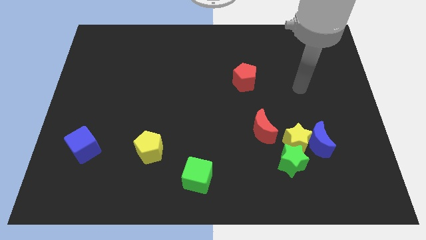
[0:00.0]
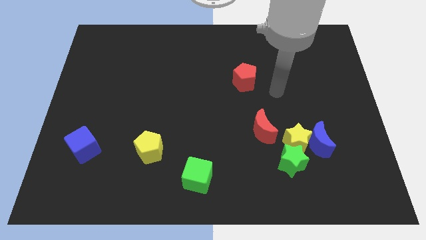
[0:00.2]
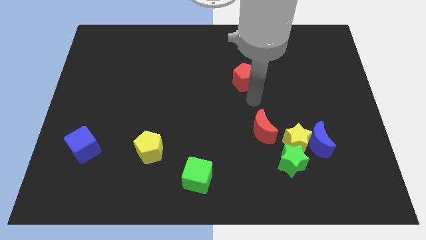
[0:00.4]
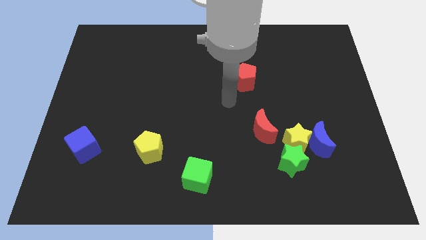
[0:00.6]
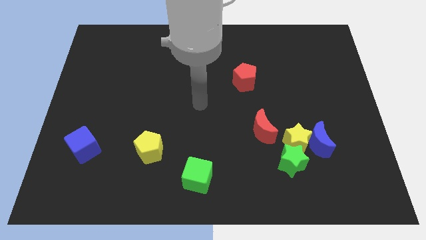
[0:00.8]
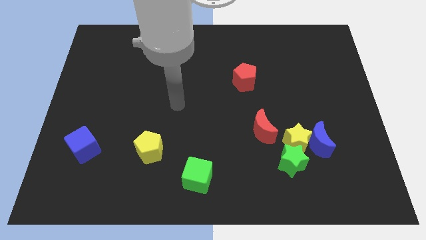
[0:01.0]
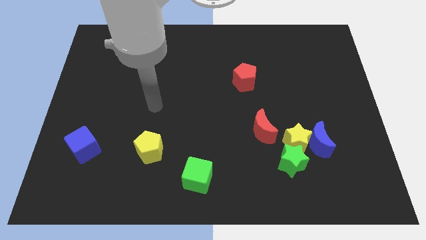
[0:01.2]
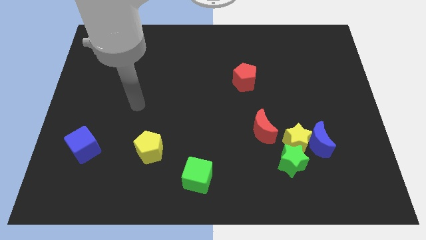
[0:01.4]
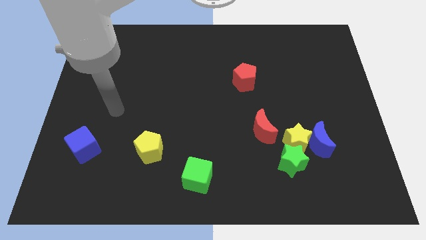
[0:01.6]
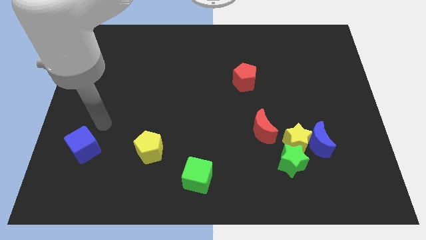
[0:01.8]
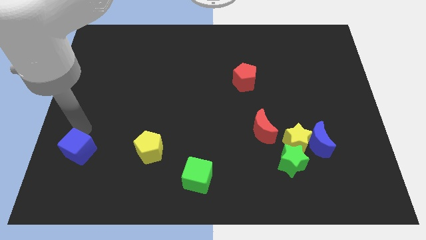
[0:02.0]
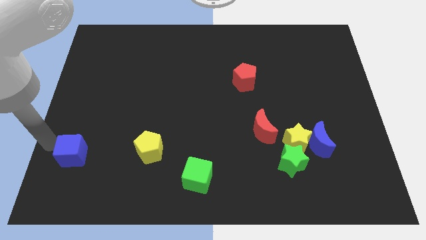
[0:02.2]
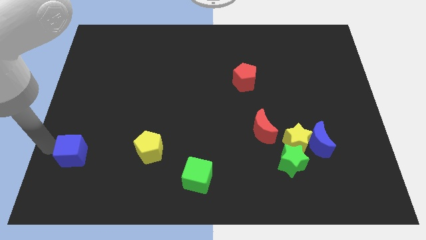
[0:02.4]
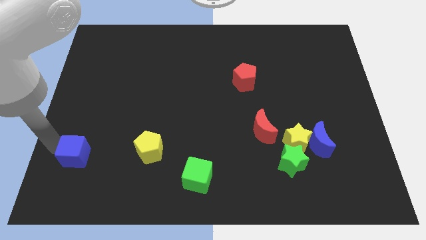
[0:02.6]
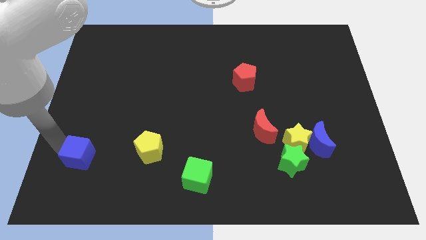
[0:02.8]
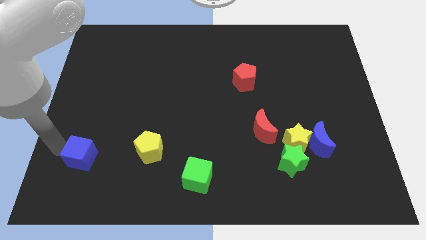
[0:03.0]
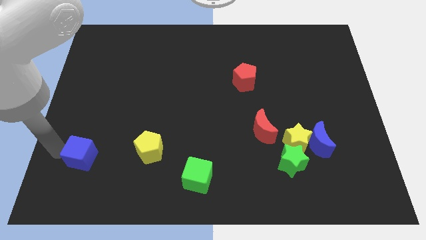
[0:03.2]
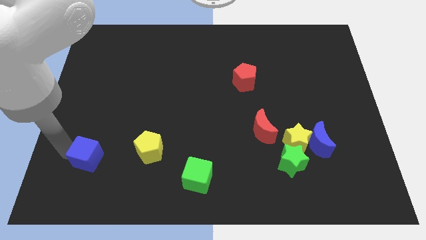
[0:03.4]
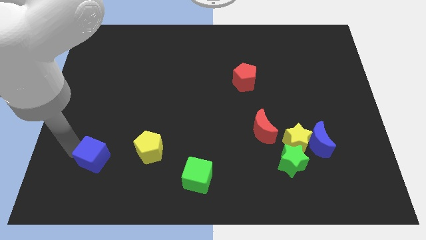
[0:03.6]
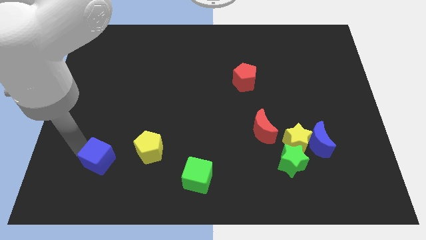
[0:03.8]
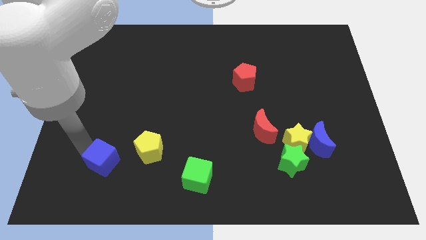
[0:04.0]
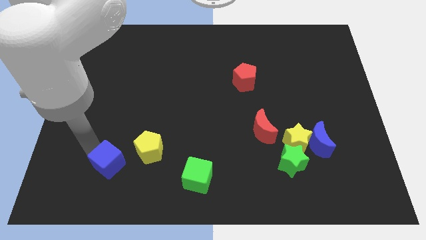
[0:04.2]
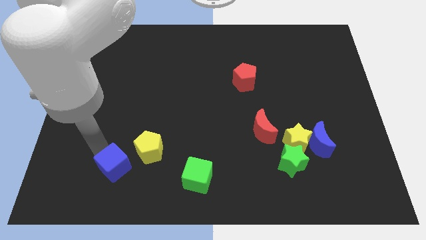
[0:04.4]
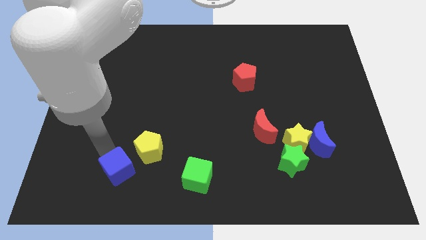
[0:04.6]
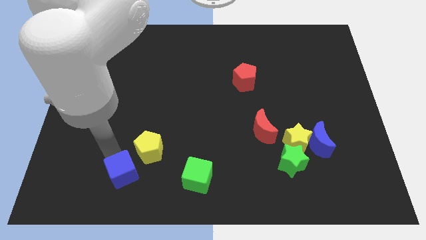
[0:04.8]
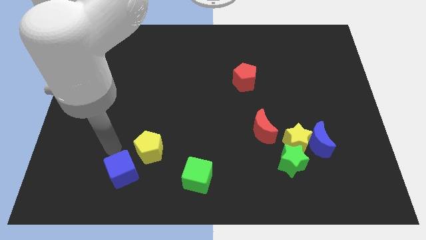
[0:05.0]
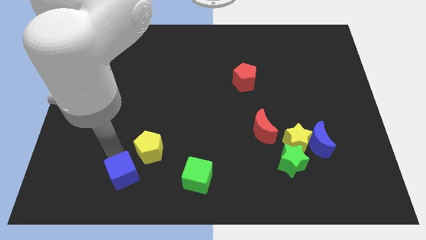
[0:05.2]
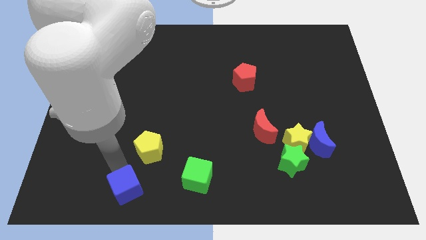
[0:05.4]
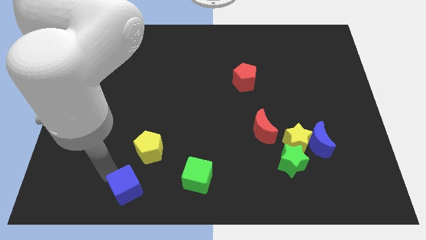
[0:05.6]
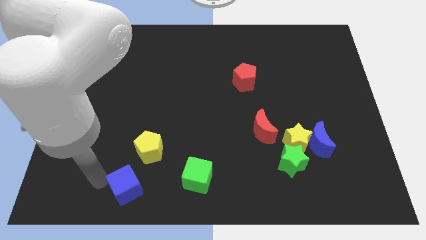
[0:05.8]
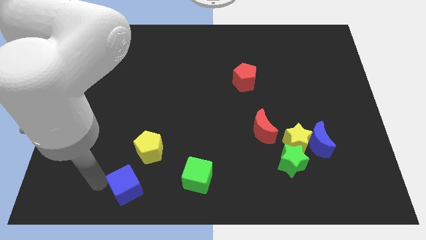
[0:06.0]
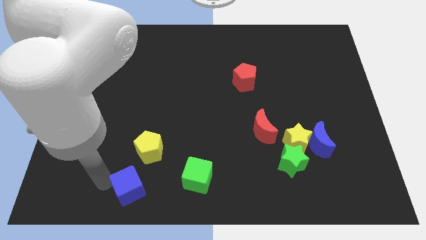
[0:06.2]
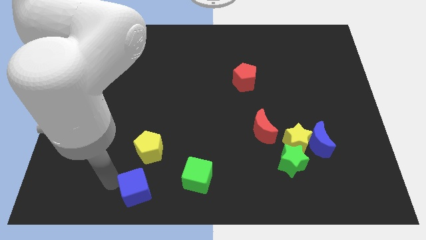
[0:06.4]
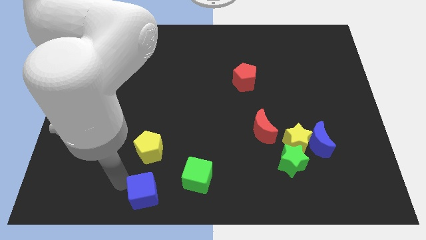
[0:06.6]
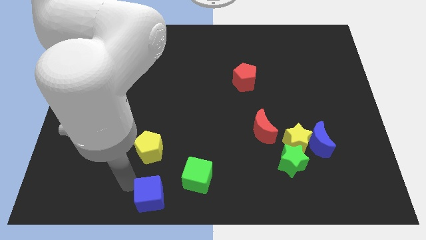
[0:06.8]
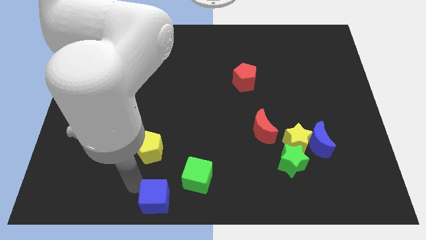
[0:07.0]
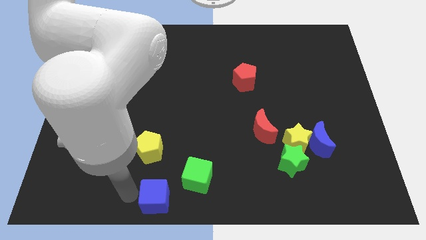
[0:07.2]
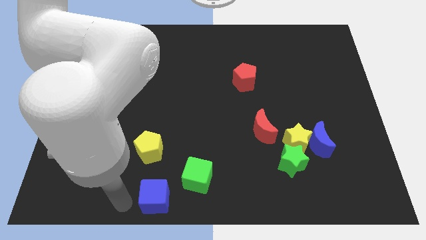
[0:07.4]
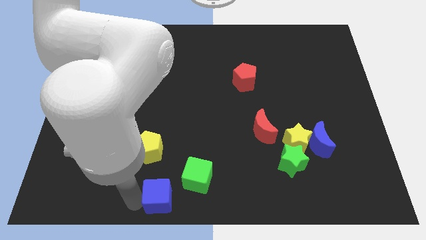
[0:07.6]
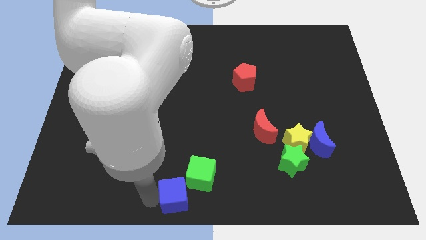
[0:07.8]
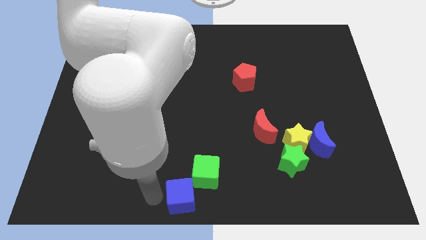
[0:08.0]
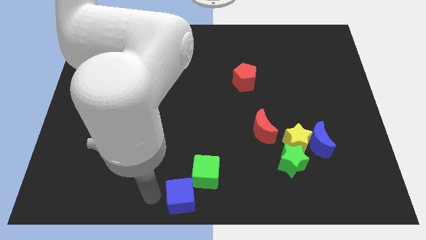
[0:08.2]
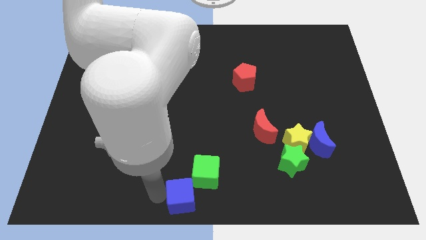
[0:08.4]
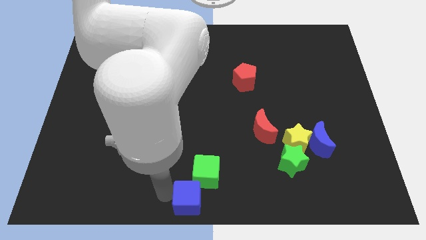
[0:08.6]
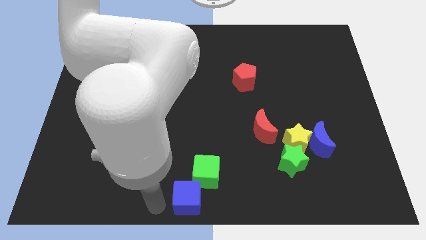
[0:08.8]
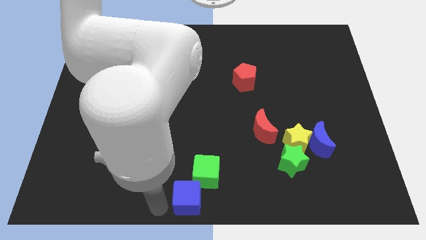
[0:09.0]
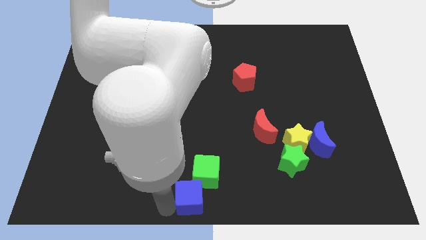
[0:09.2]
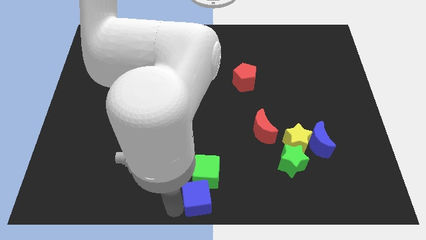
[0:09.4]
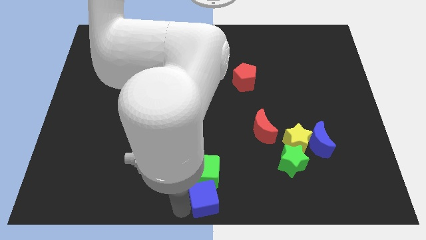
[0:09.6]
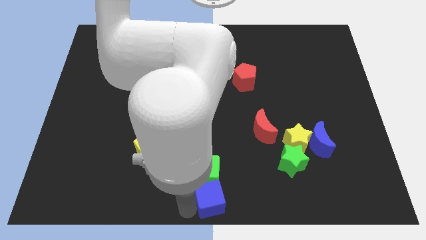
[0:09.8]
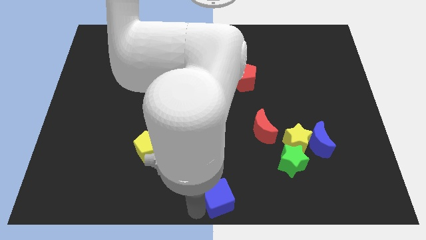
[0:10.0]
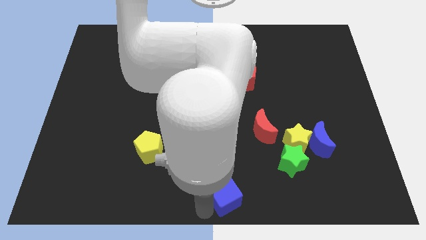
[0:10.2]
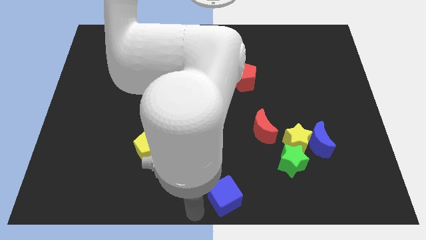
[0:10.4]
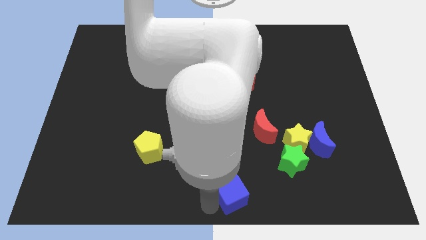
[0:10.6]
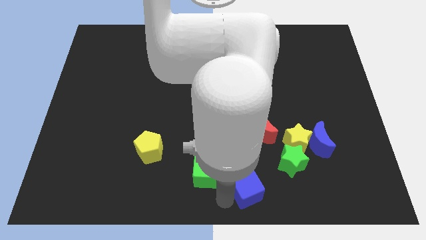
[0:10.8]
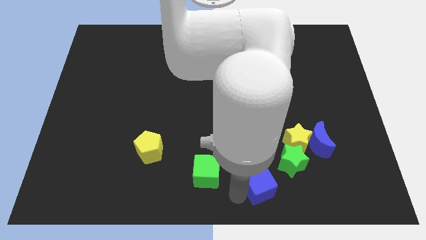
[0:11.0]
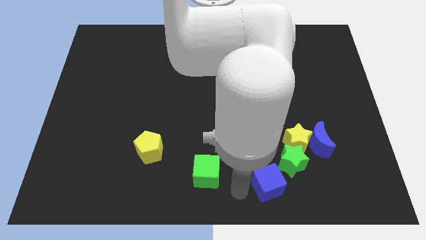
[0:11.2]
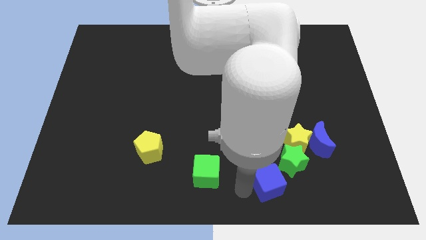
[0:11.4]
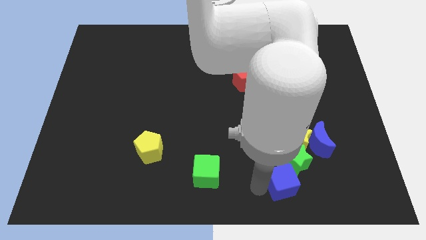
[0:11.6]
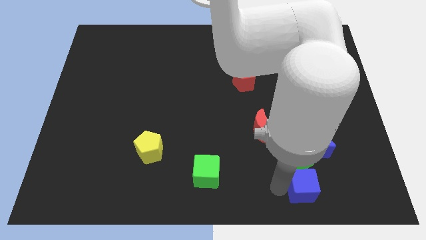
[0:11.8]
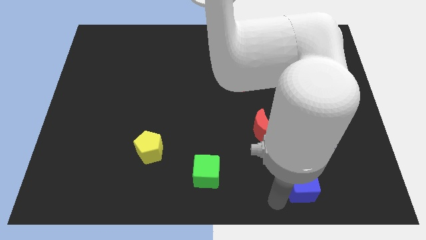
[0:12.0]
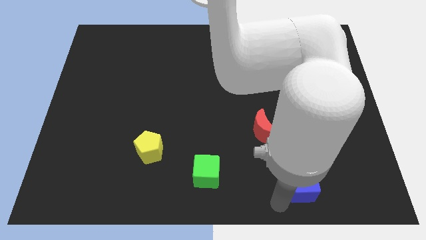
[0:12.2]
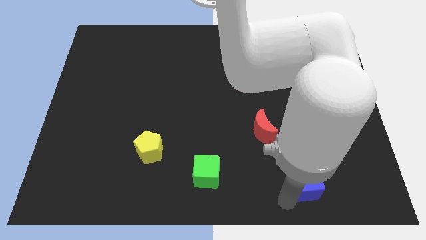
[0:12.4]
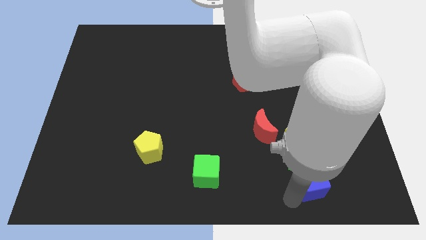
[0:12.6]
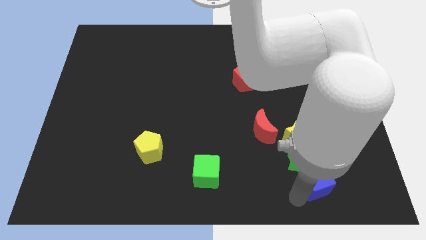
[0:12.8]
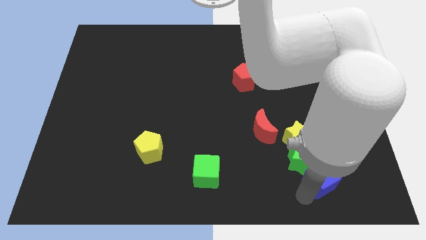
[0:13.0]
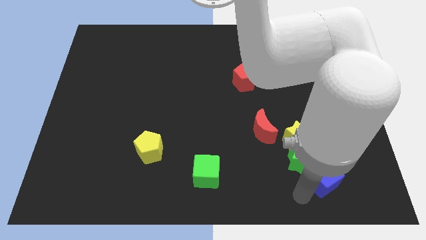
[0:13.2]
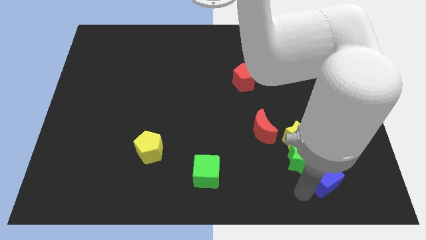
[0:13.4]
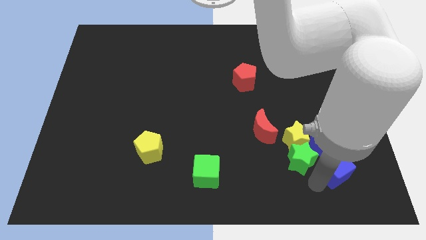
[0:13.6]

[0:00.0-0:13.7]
put the blue cube diagonally down and to the right of the blue moon
